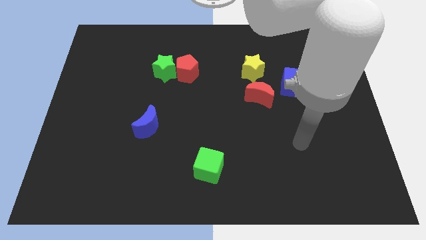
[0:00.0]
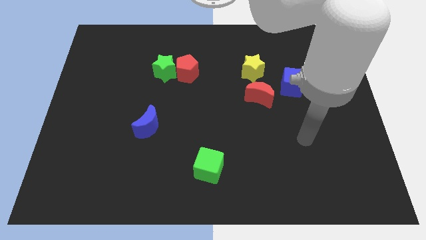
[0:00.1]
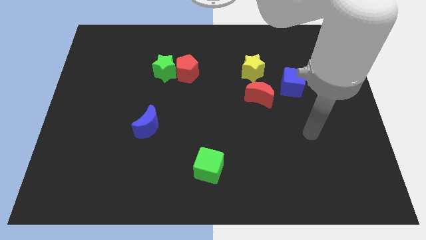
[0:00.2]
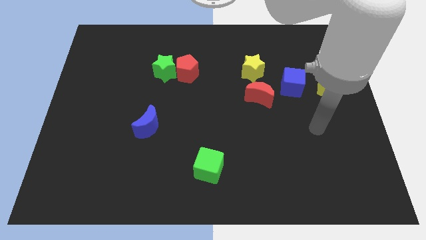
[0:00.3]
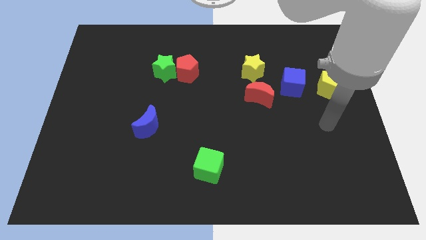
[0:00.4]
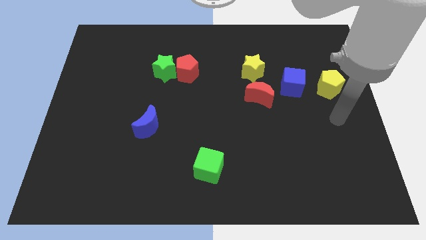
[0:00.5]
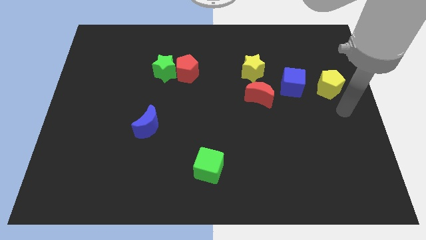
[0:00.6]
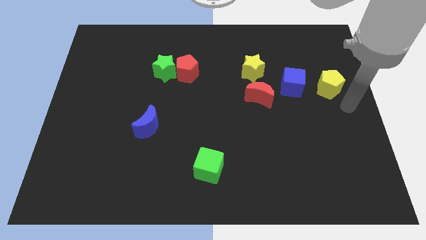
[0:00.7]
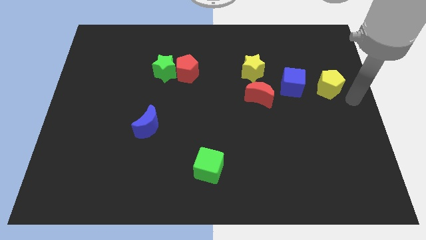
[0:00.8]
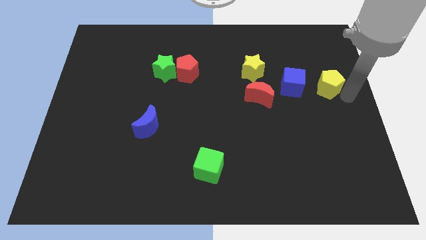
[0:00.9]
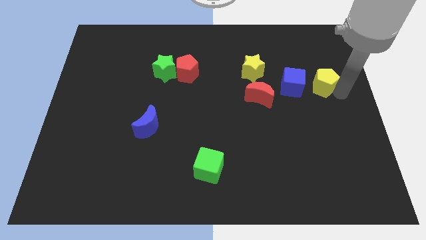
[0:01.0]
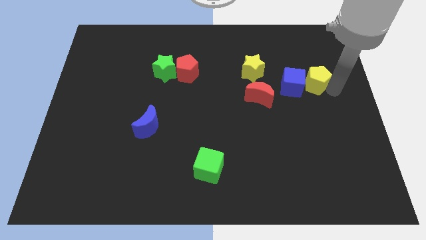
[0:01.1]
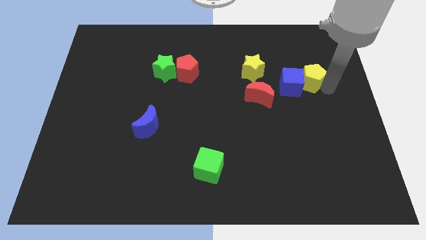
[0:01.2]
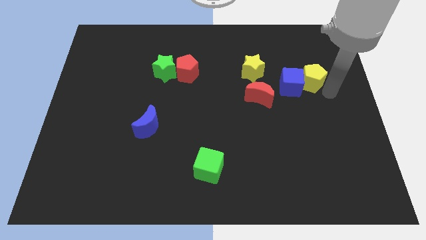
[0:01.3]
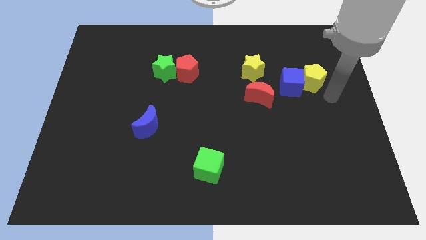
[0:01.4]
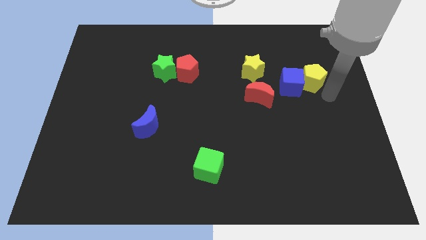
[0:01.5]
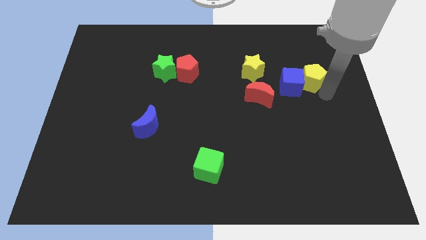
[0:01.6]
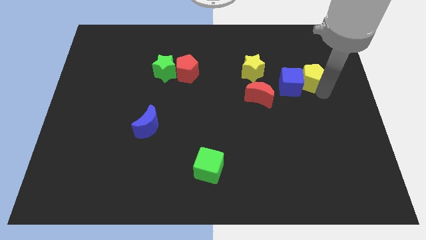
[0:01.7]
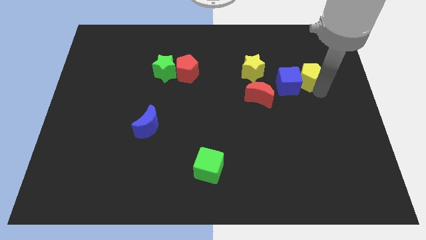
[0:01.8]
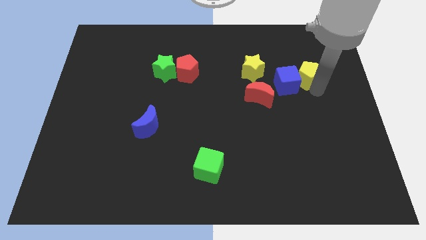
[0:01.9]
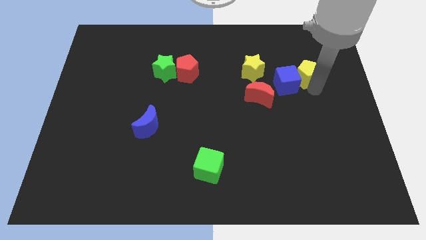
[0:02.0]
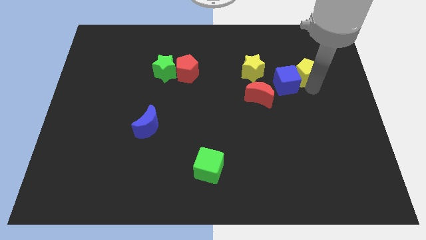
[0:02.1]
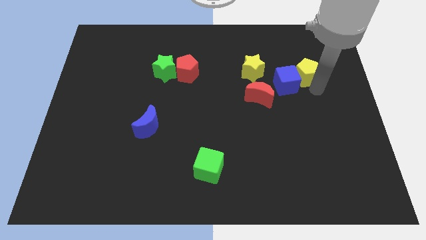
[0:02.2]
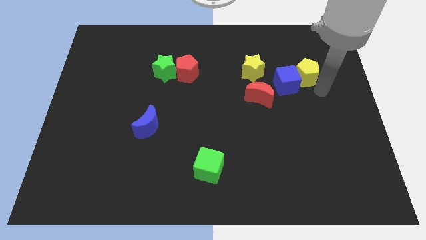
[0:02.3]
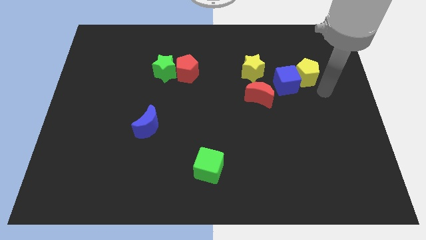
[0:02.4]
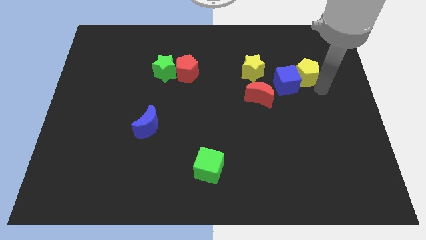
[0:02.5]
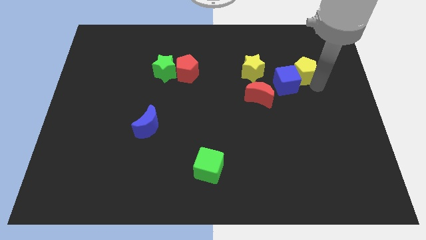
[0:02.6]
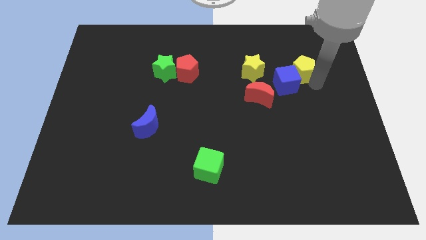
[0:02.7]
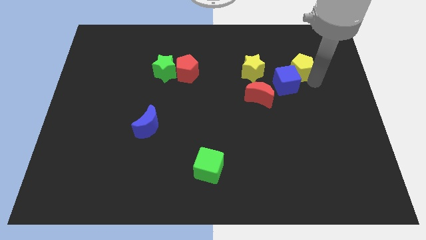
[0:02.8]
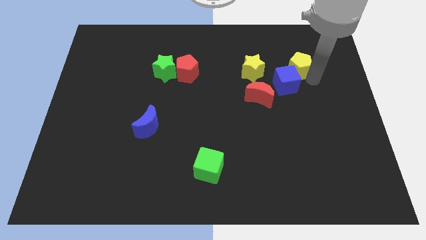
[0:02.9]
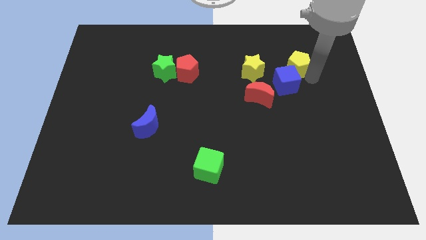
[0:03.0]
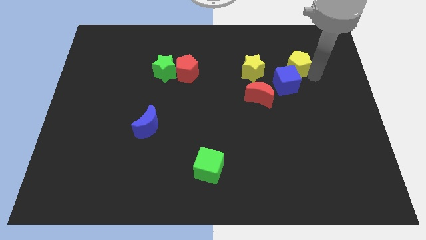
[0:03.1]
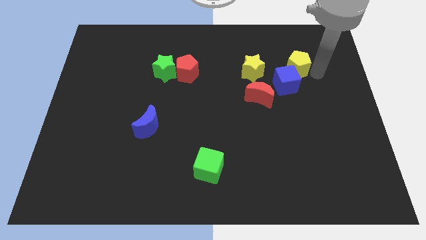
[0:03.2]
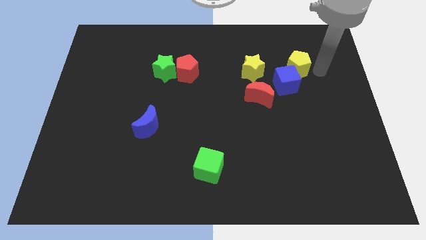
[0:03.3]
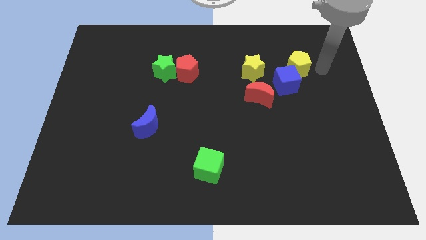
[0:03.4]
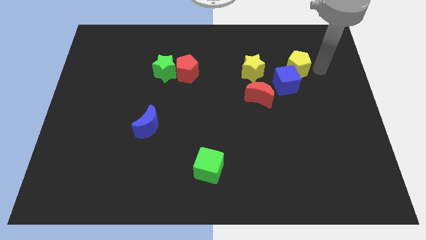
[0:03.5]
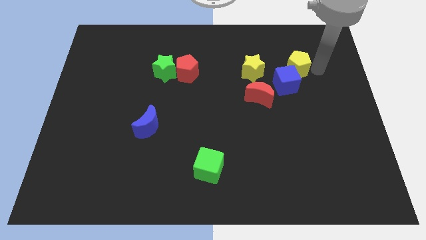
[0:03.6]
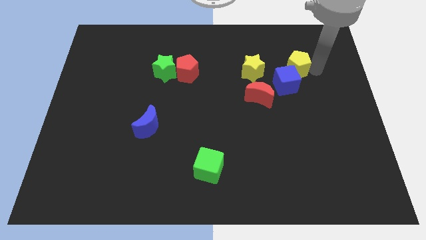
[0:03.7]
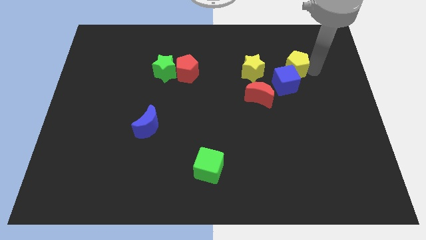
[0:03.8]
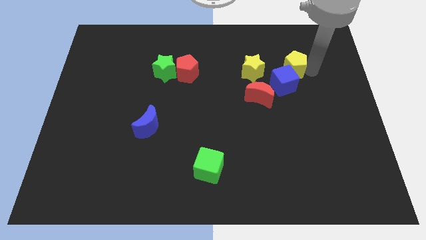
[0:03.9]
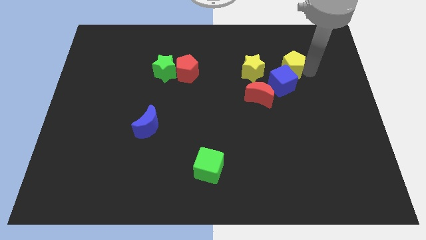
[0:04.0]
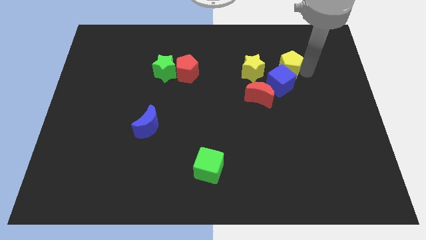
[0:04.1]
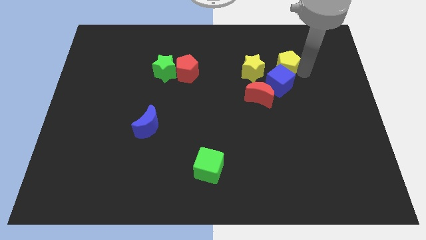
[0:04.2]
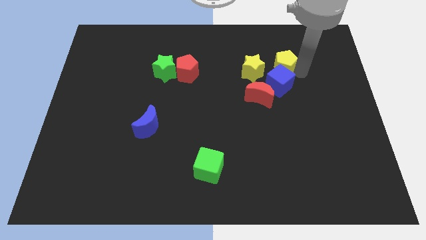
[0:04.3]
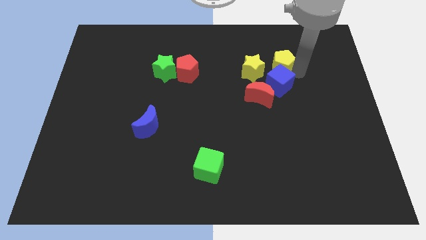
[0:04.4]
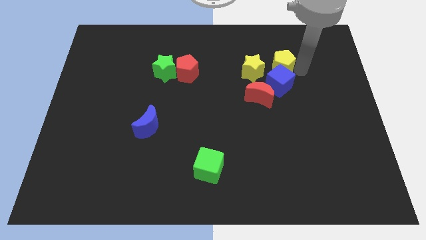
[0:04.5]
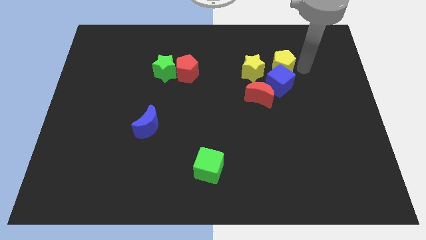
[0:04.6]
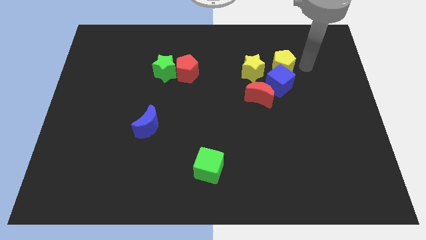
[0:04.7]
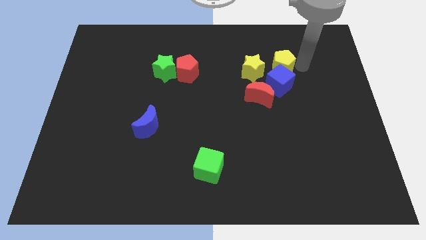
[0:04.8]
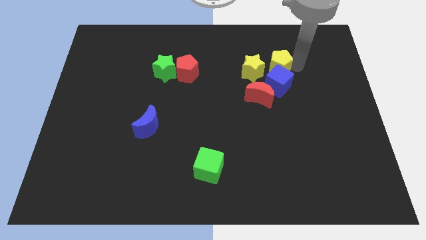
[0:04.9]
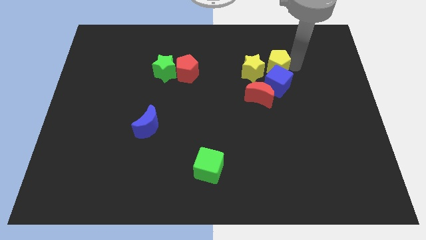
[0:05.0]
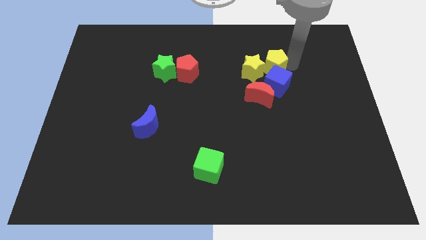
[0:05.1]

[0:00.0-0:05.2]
move the yellow pentagon close to the yellow star

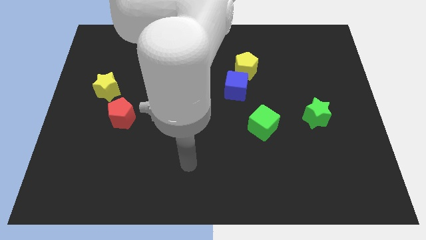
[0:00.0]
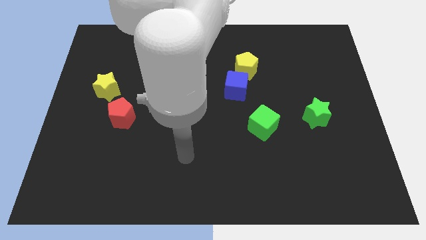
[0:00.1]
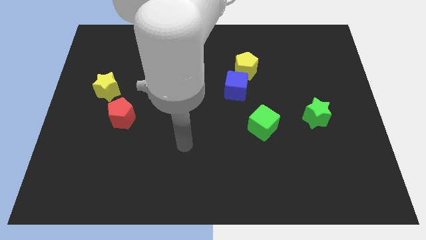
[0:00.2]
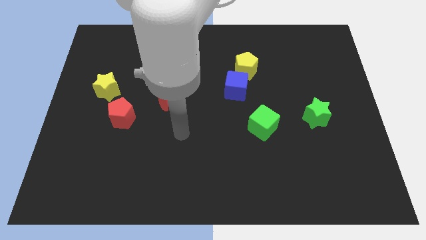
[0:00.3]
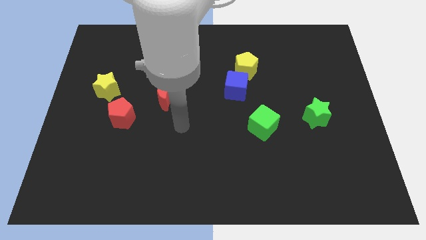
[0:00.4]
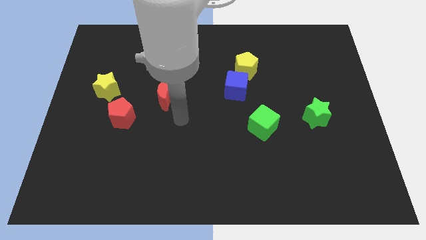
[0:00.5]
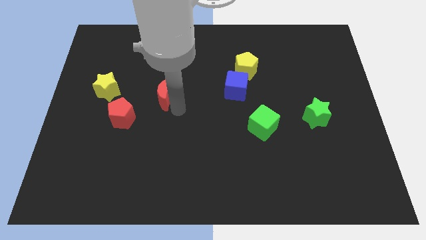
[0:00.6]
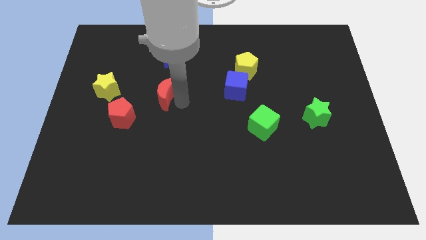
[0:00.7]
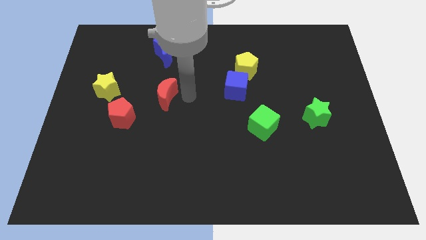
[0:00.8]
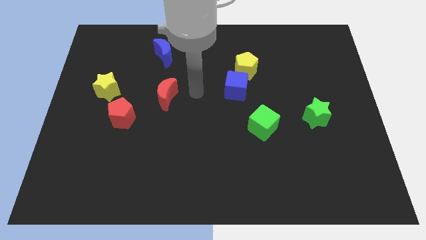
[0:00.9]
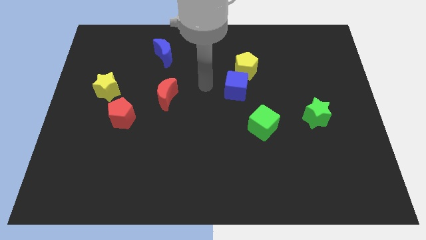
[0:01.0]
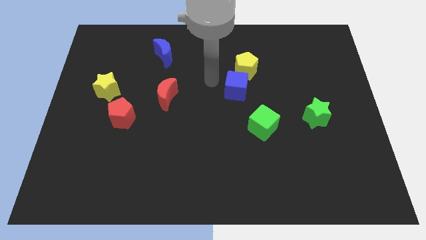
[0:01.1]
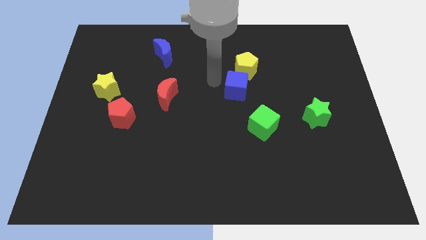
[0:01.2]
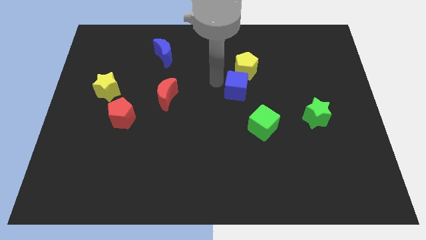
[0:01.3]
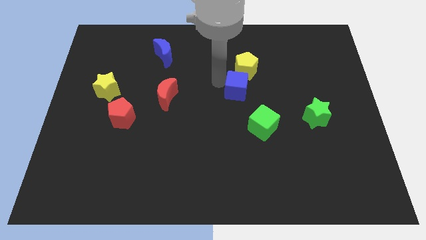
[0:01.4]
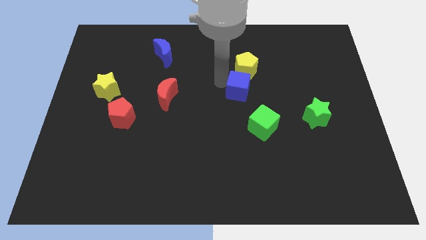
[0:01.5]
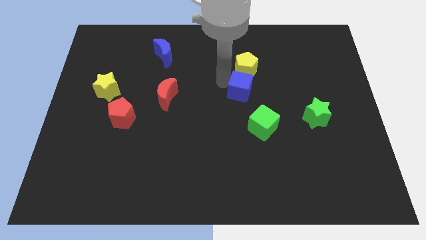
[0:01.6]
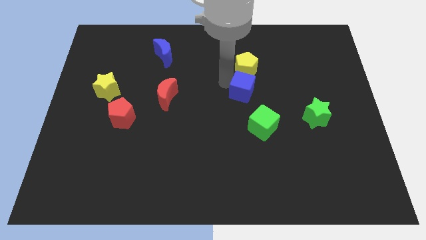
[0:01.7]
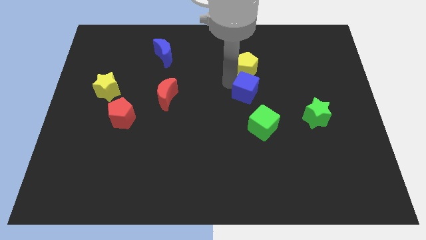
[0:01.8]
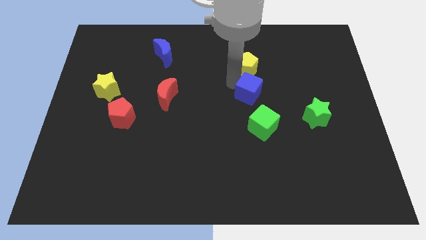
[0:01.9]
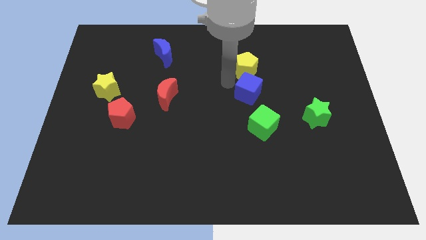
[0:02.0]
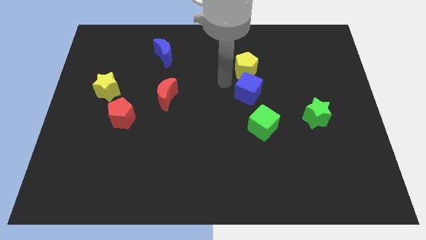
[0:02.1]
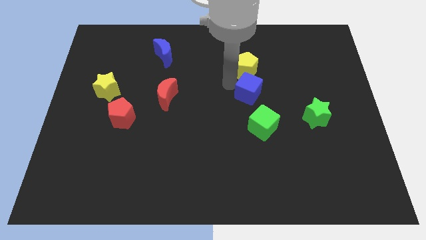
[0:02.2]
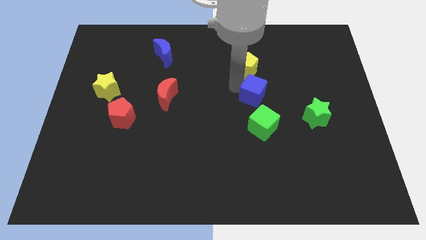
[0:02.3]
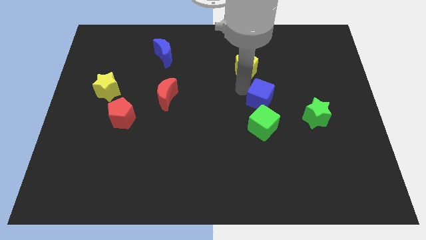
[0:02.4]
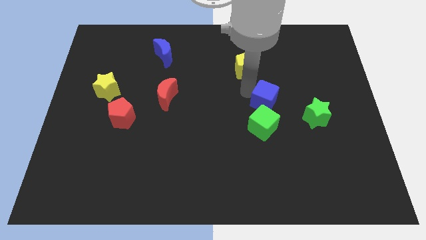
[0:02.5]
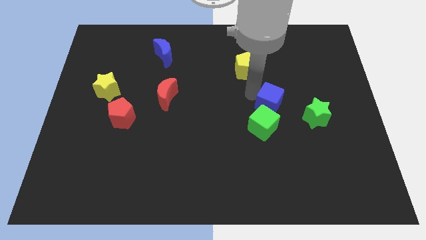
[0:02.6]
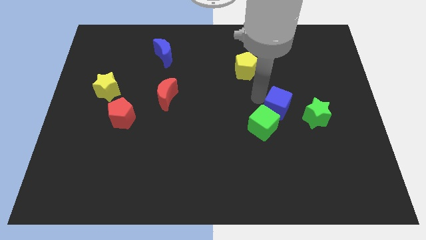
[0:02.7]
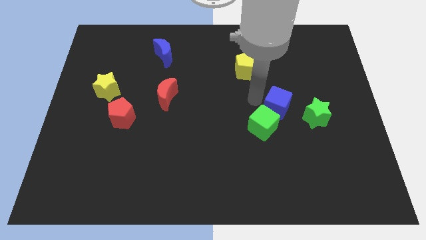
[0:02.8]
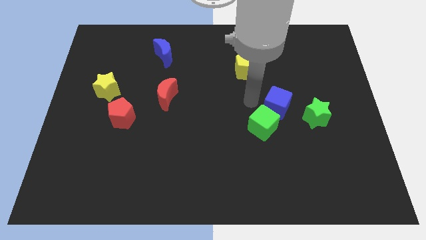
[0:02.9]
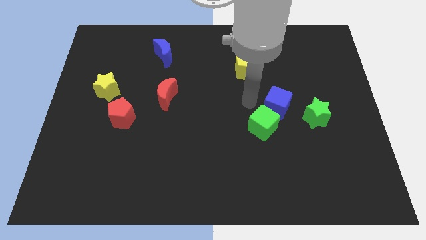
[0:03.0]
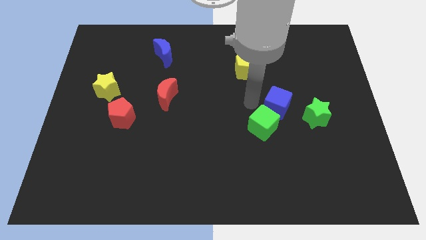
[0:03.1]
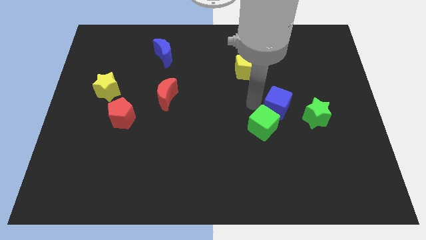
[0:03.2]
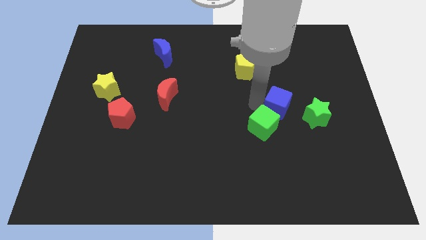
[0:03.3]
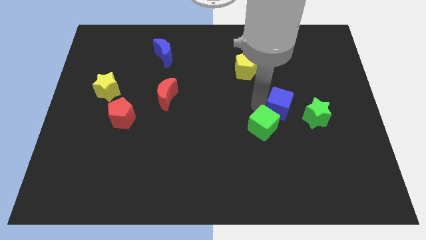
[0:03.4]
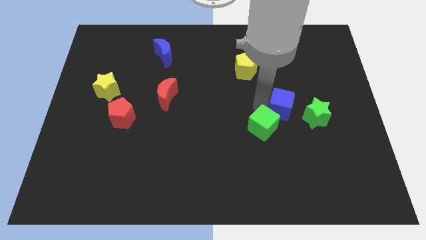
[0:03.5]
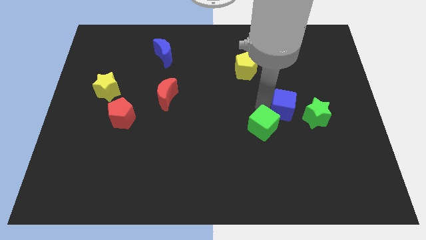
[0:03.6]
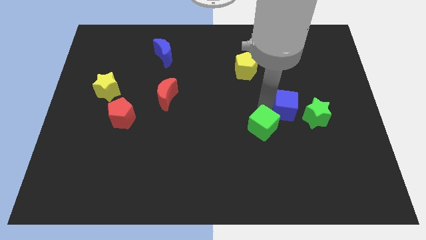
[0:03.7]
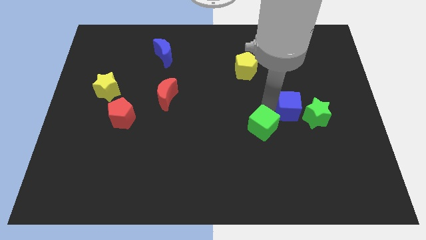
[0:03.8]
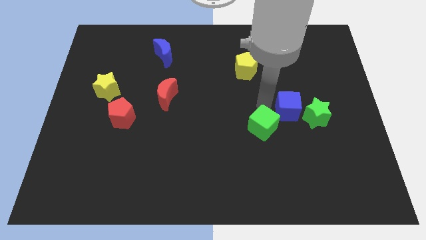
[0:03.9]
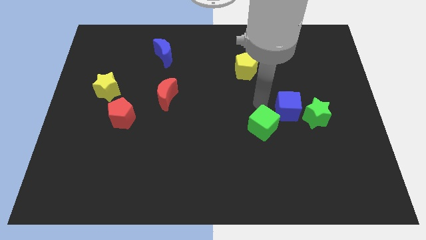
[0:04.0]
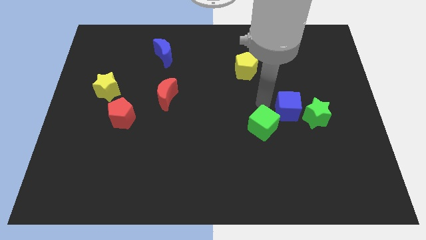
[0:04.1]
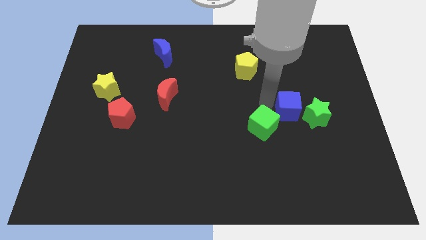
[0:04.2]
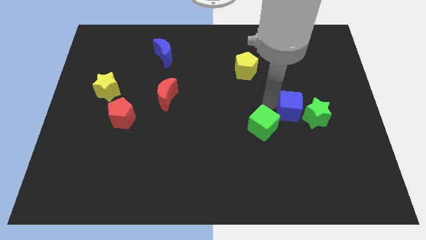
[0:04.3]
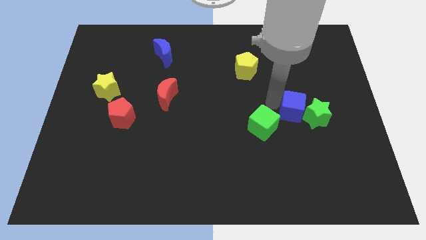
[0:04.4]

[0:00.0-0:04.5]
slide the blue cube towards the green star
